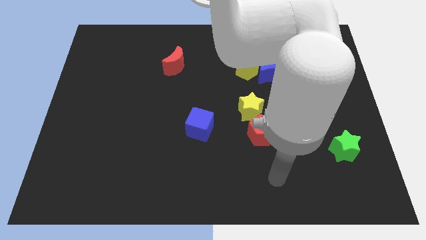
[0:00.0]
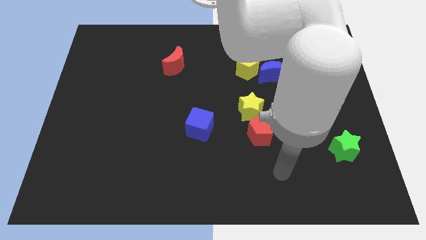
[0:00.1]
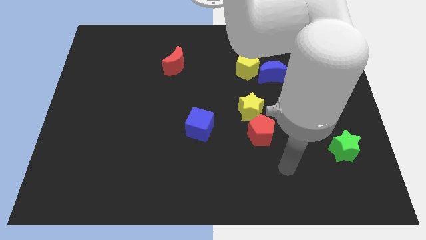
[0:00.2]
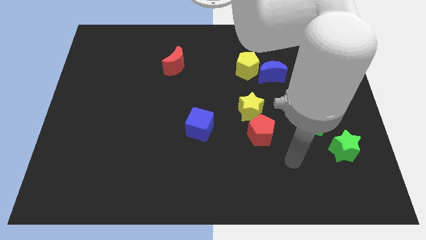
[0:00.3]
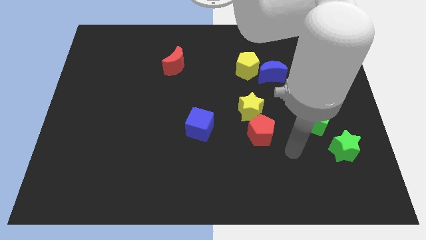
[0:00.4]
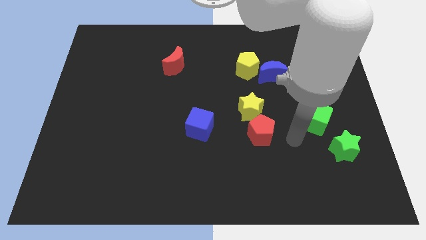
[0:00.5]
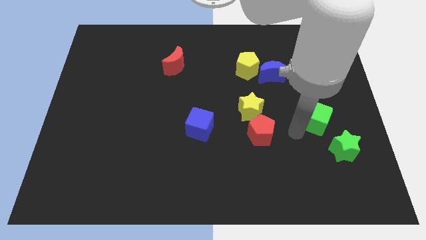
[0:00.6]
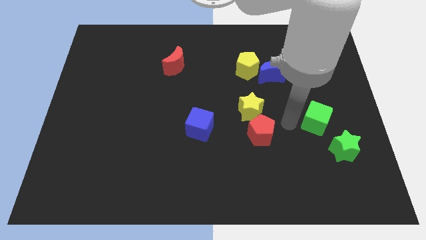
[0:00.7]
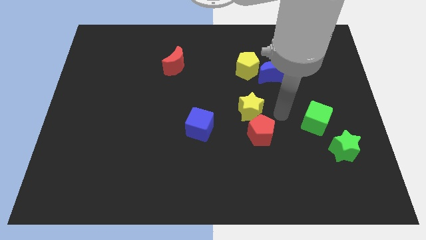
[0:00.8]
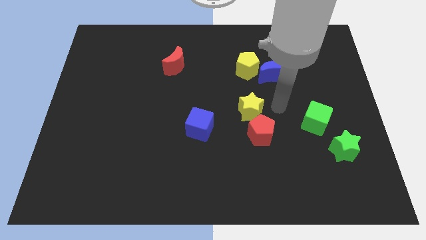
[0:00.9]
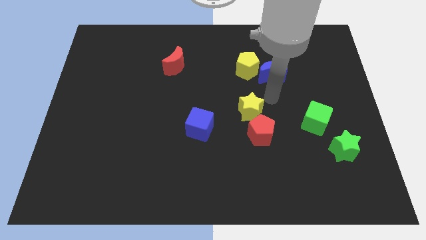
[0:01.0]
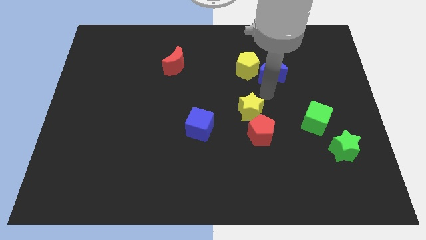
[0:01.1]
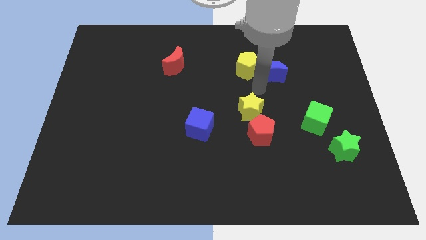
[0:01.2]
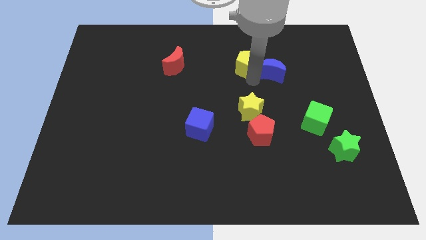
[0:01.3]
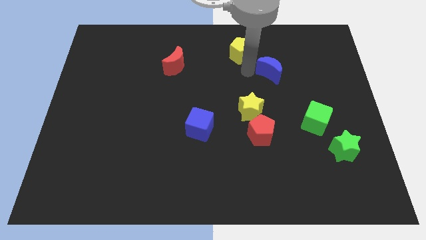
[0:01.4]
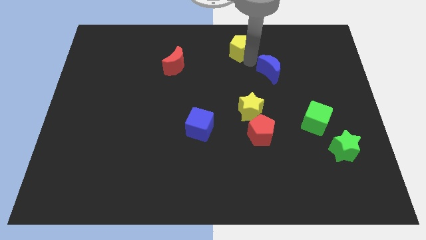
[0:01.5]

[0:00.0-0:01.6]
pull the blue moon apart from the yellow pentagon

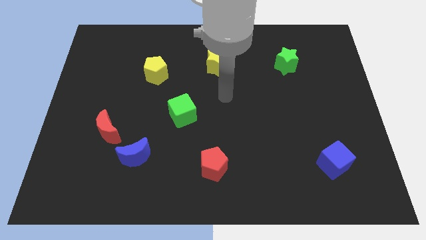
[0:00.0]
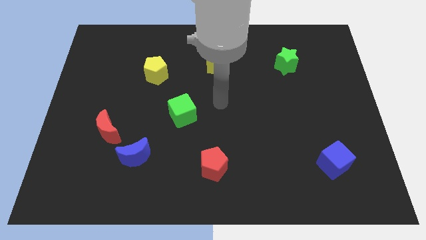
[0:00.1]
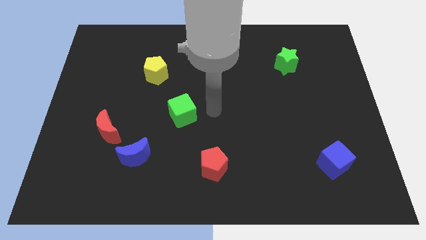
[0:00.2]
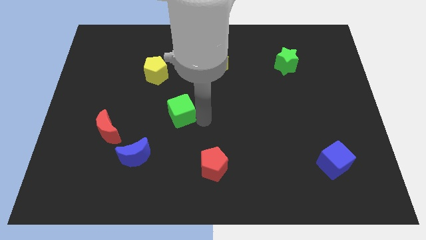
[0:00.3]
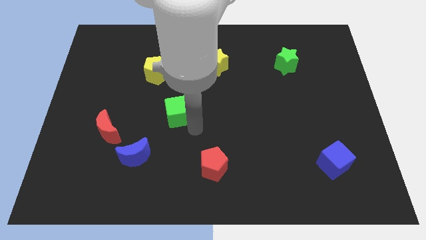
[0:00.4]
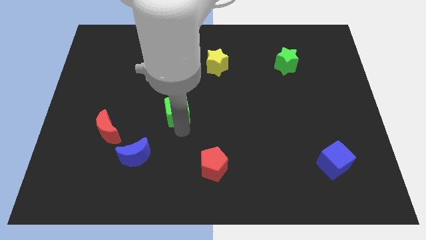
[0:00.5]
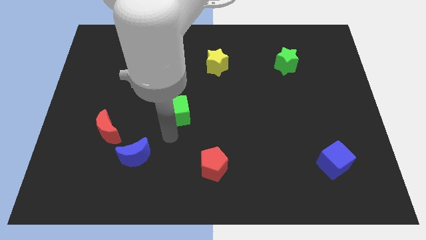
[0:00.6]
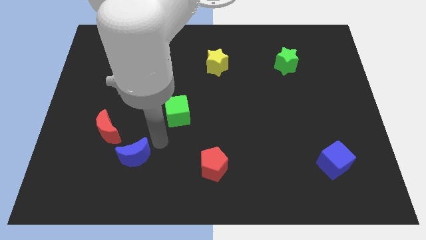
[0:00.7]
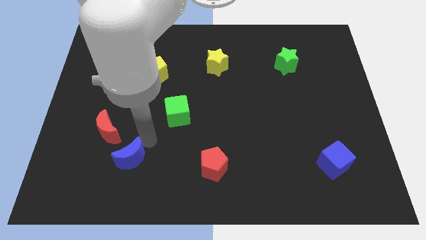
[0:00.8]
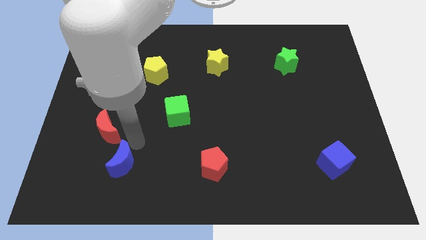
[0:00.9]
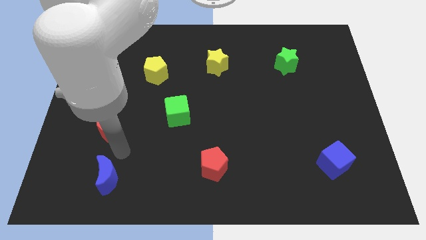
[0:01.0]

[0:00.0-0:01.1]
pull the red moon apart from the blue moon

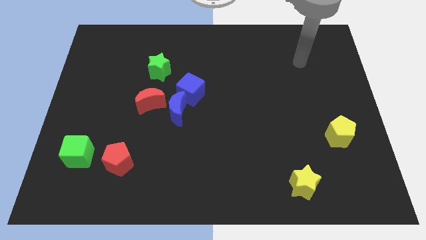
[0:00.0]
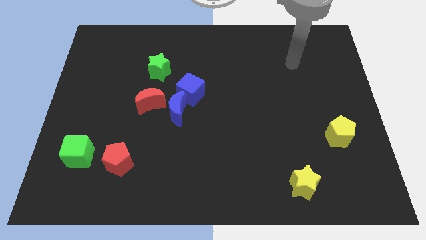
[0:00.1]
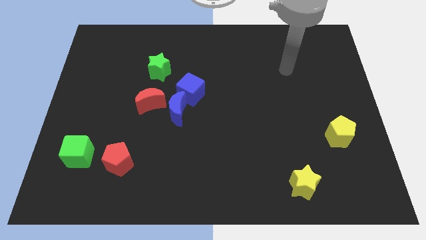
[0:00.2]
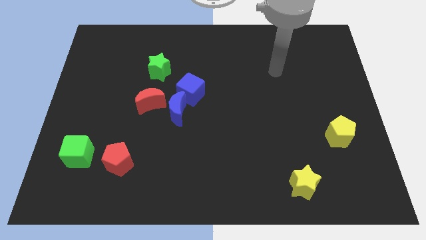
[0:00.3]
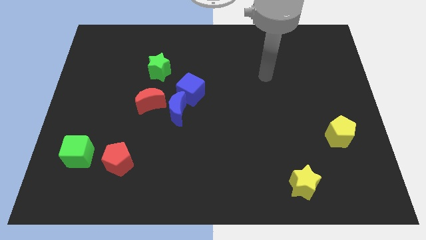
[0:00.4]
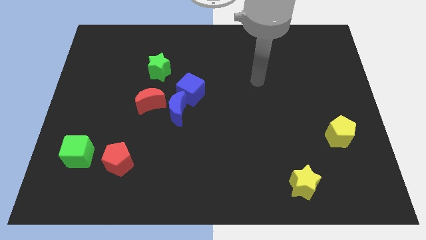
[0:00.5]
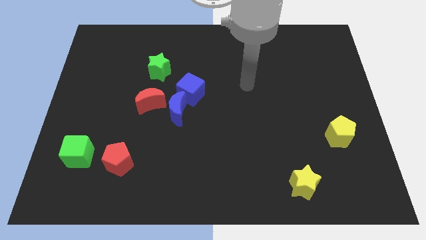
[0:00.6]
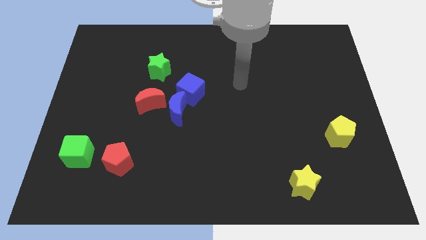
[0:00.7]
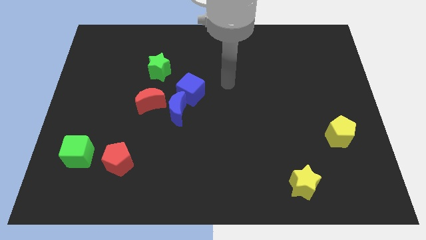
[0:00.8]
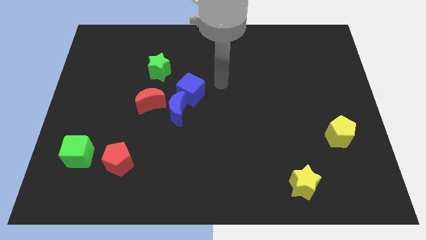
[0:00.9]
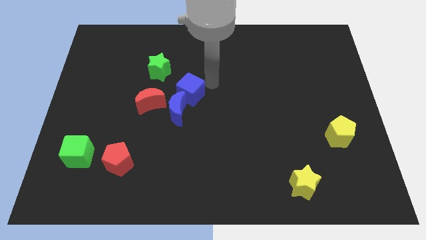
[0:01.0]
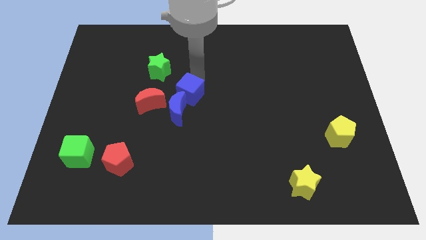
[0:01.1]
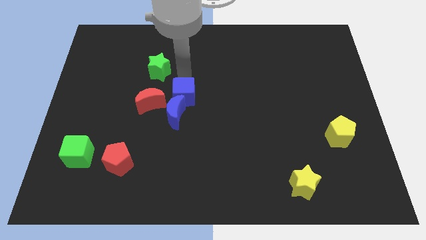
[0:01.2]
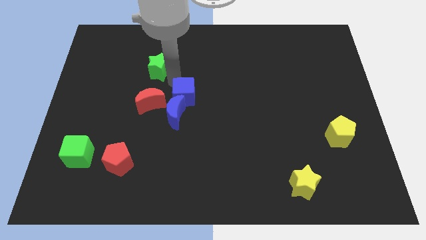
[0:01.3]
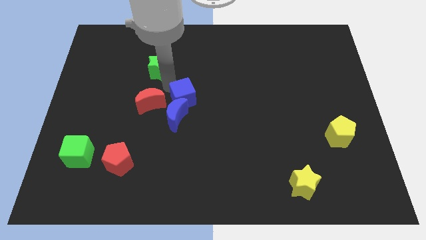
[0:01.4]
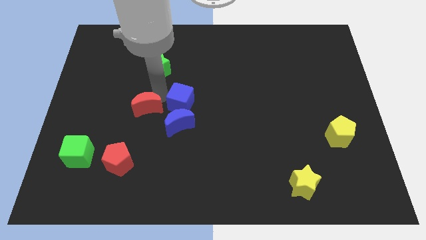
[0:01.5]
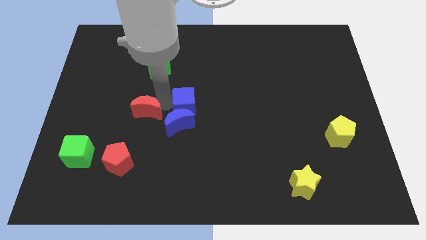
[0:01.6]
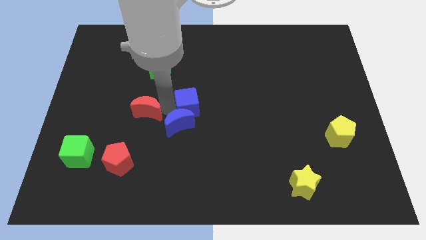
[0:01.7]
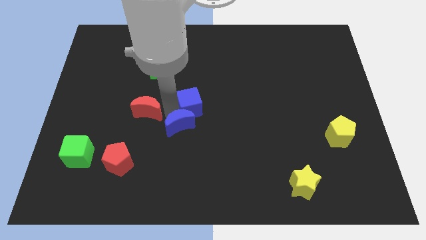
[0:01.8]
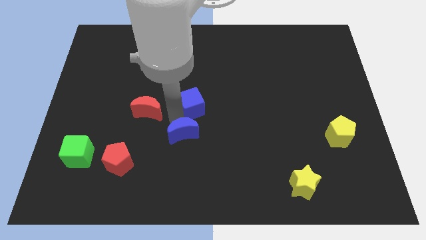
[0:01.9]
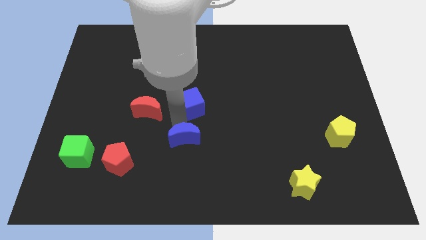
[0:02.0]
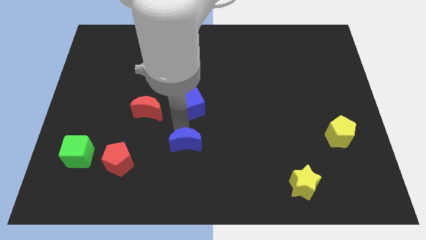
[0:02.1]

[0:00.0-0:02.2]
separate the blue moon from the blue cube and red moon

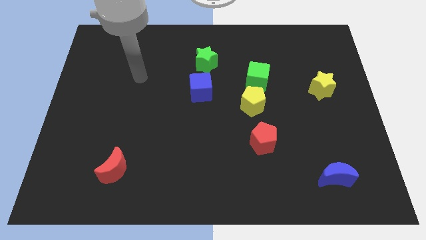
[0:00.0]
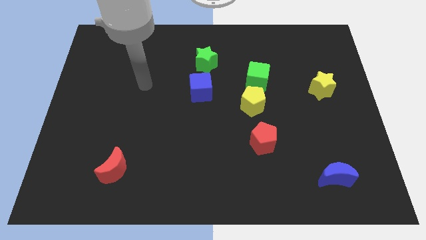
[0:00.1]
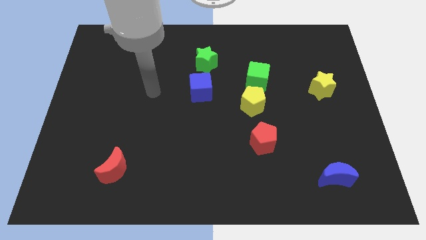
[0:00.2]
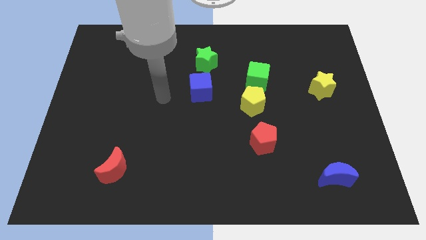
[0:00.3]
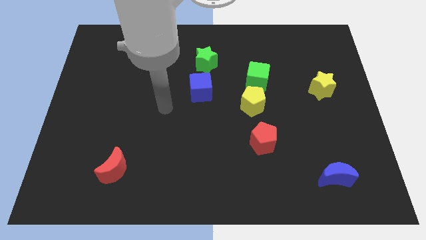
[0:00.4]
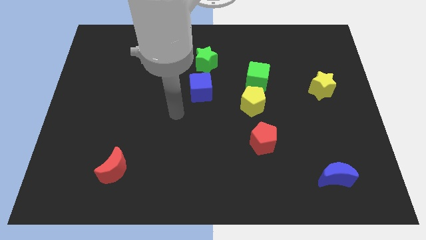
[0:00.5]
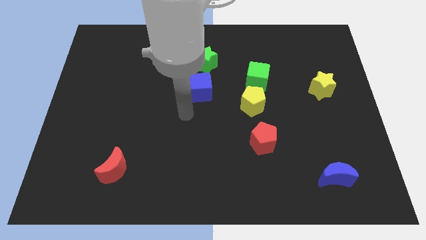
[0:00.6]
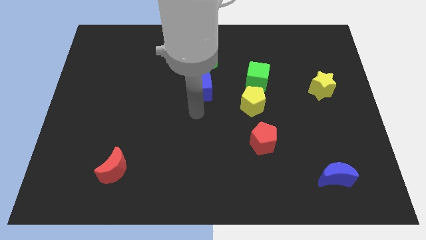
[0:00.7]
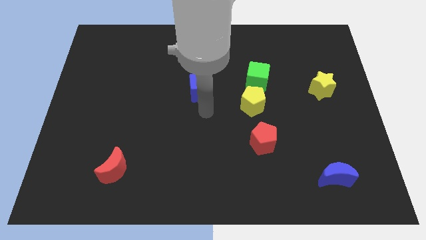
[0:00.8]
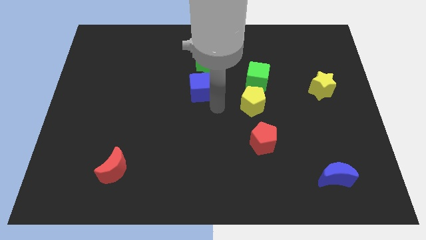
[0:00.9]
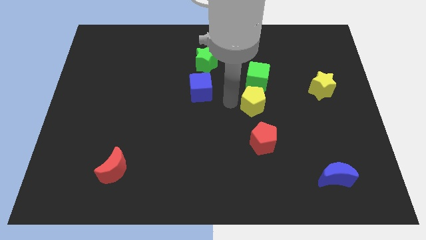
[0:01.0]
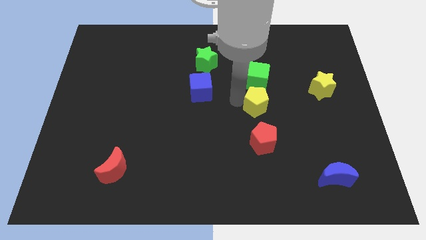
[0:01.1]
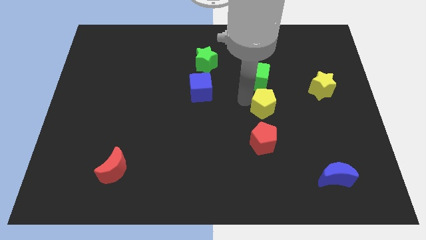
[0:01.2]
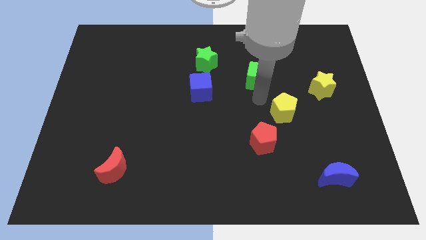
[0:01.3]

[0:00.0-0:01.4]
pull the green cube apart from the yellow pentagon

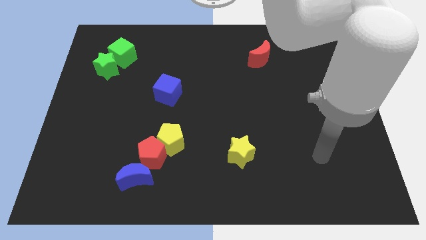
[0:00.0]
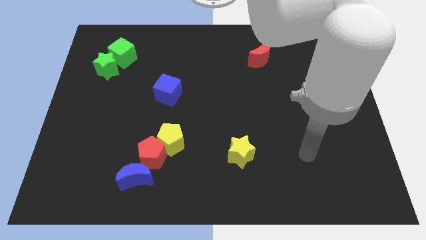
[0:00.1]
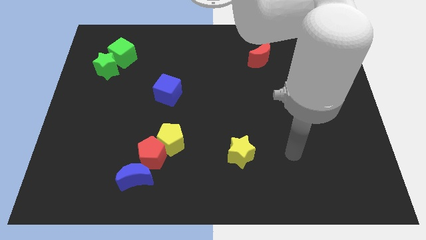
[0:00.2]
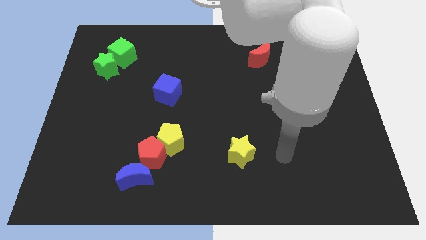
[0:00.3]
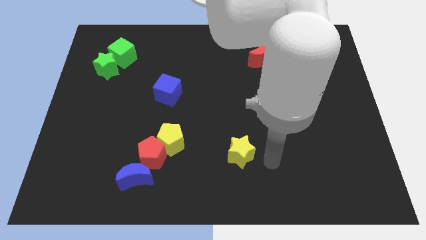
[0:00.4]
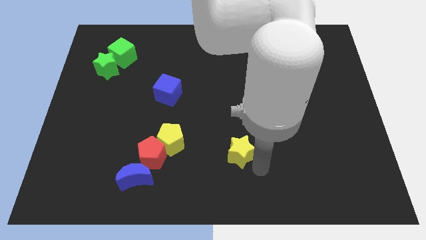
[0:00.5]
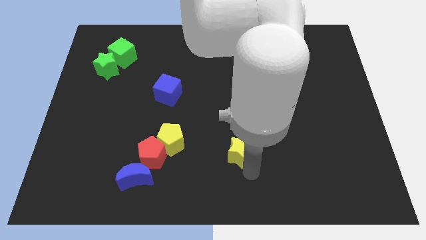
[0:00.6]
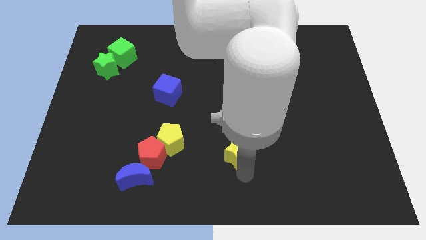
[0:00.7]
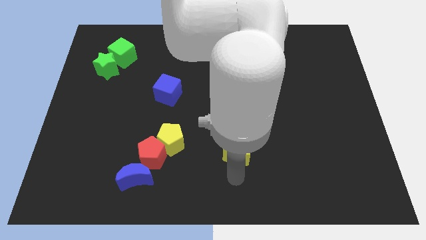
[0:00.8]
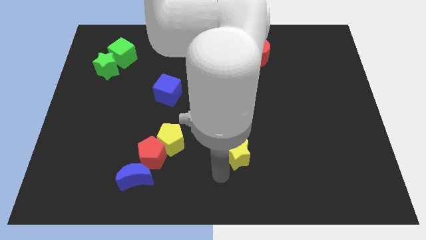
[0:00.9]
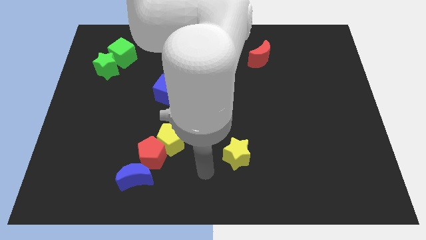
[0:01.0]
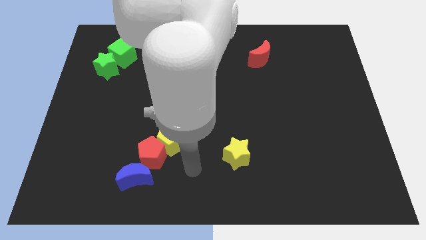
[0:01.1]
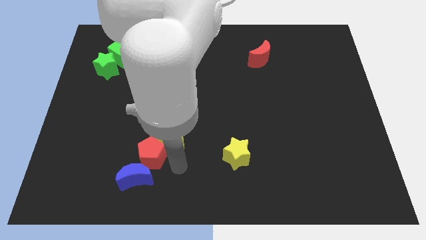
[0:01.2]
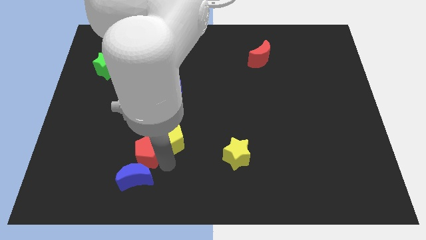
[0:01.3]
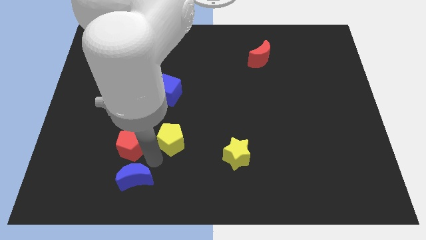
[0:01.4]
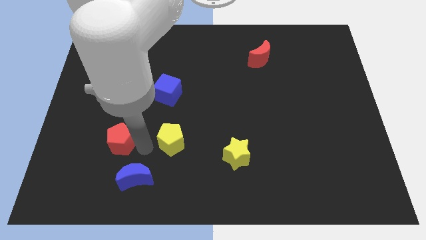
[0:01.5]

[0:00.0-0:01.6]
separate the yellow pentagon from the red pentagon

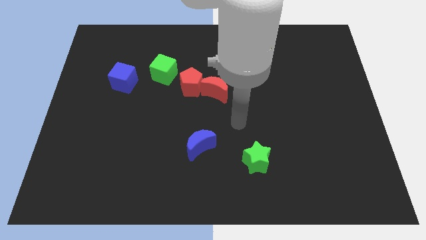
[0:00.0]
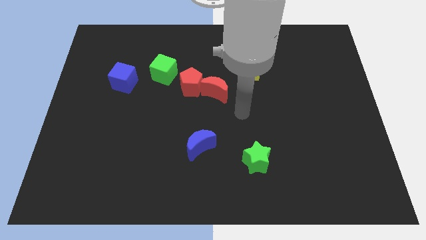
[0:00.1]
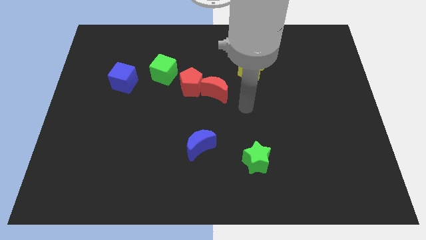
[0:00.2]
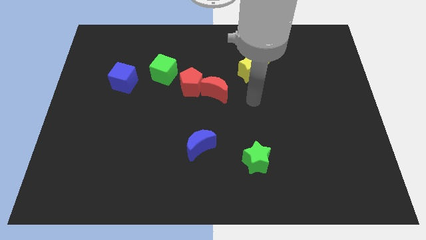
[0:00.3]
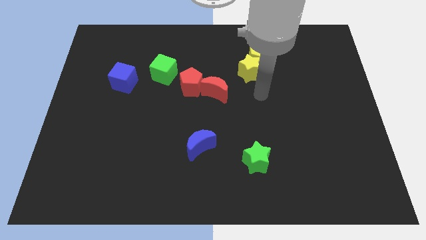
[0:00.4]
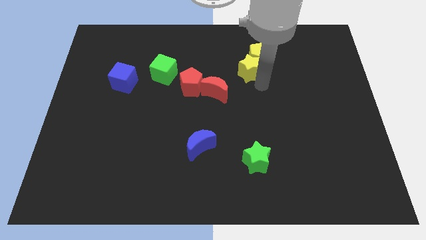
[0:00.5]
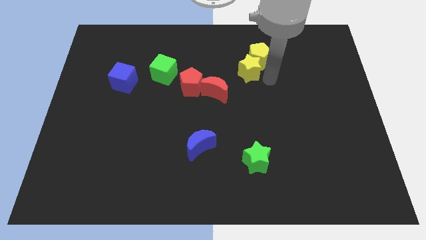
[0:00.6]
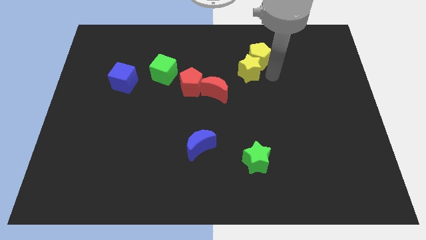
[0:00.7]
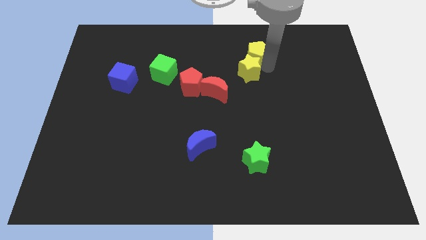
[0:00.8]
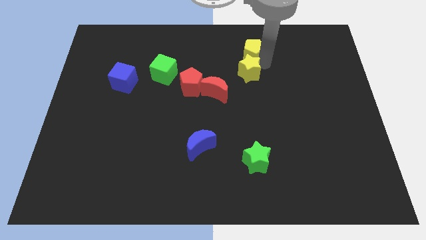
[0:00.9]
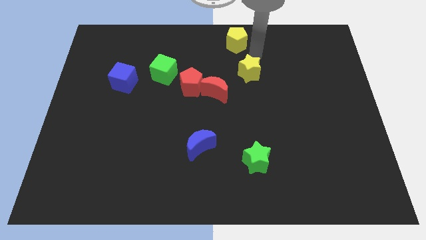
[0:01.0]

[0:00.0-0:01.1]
move the yellow star away from the yellow pentagon

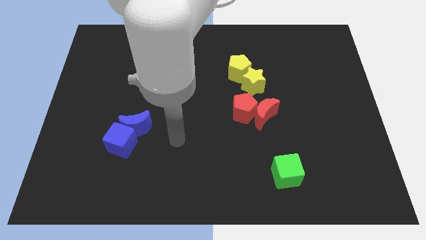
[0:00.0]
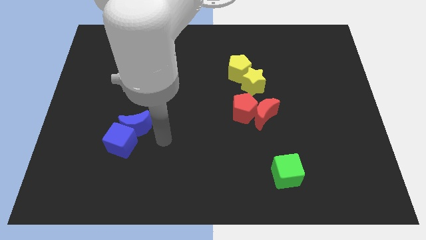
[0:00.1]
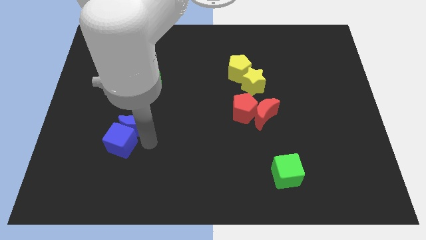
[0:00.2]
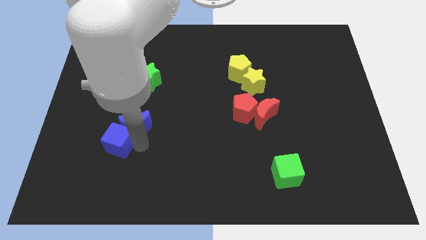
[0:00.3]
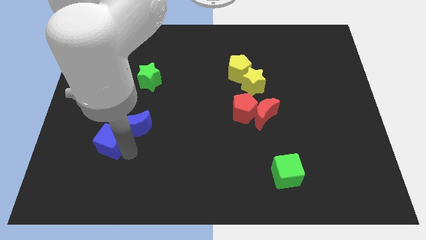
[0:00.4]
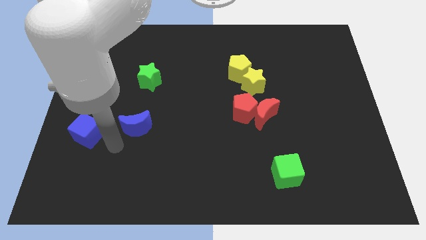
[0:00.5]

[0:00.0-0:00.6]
separate the blue moon from the blue cube
